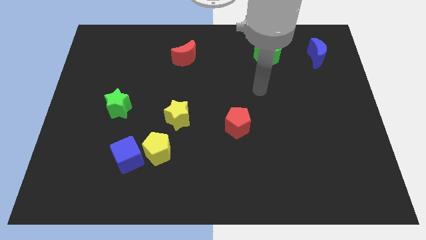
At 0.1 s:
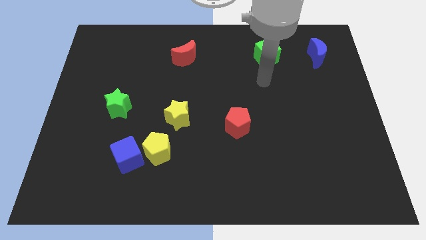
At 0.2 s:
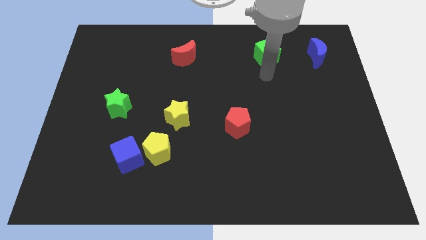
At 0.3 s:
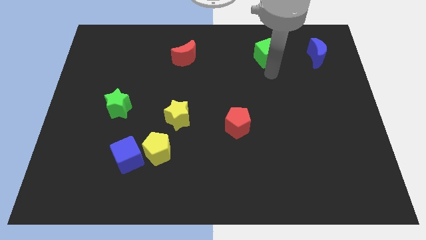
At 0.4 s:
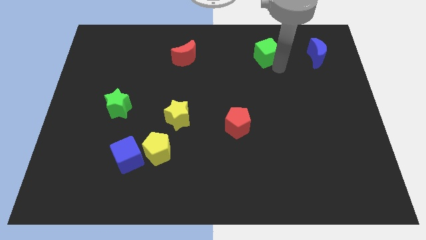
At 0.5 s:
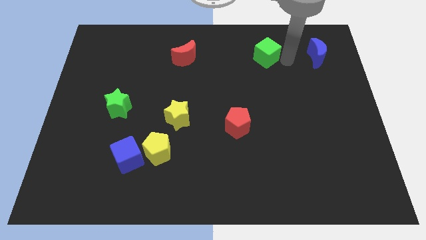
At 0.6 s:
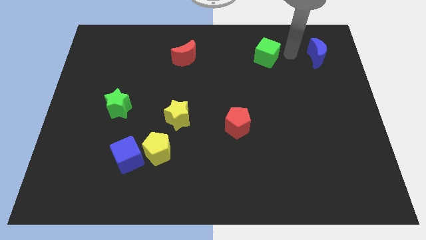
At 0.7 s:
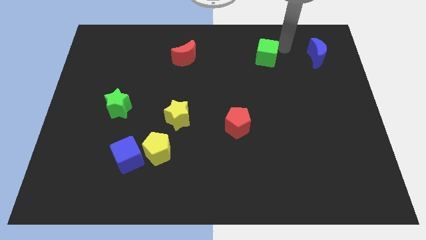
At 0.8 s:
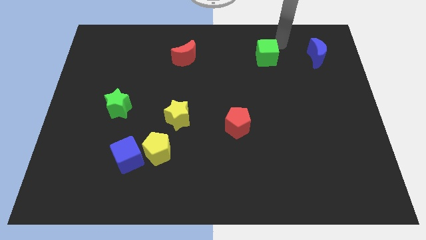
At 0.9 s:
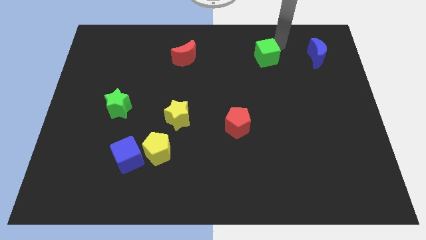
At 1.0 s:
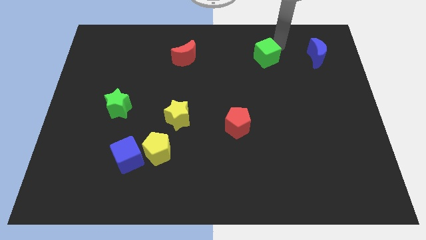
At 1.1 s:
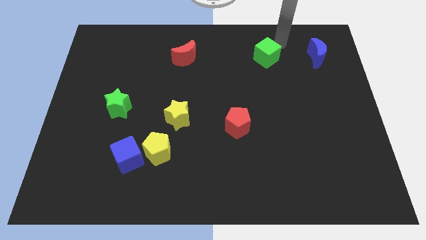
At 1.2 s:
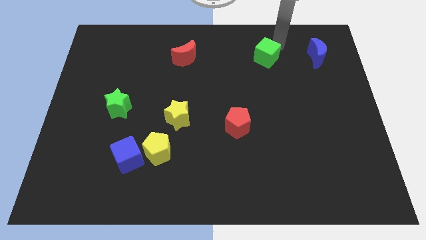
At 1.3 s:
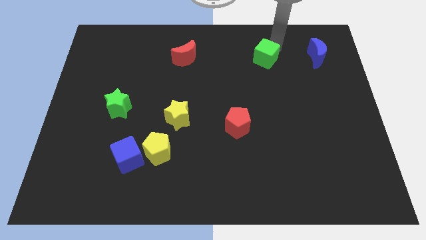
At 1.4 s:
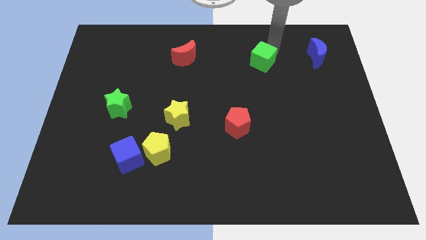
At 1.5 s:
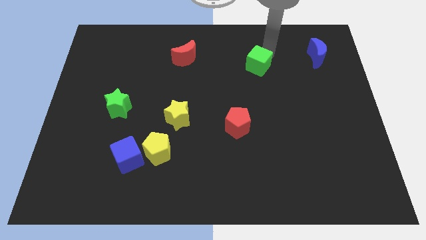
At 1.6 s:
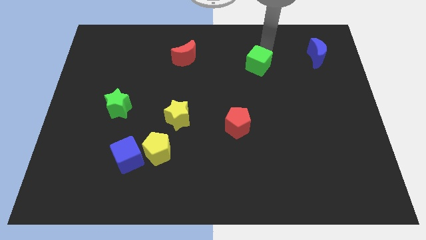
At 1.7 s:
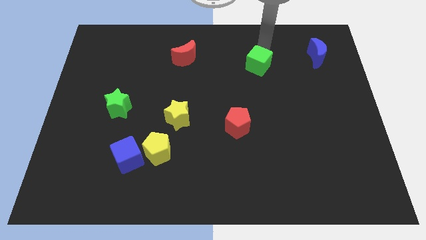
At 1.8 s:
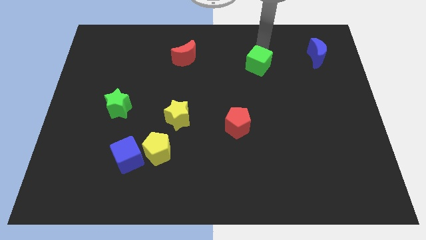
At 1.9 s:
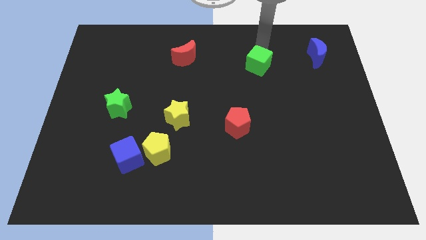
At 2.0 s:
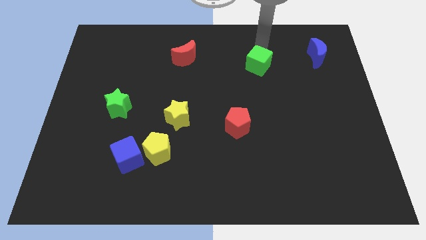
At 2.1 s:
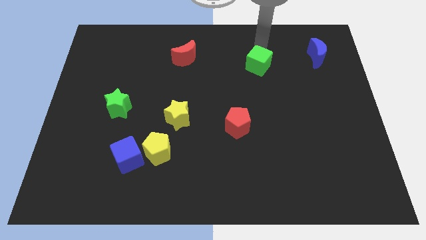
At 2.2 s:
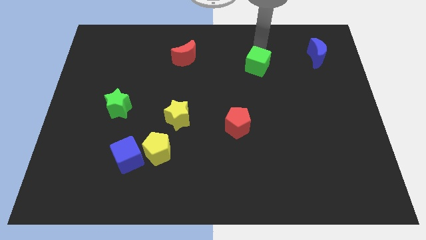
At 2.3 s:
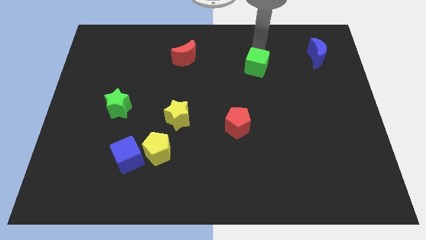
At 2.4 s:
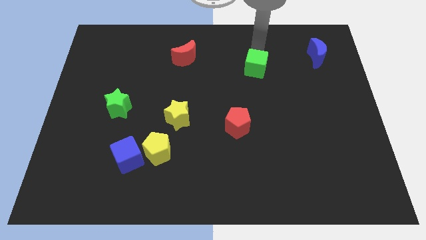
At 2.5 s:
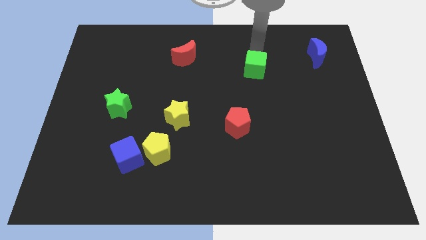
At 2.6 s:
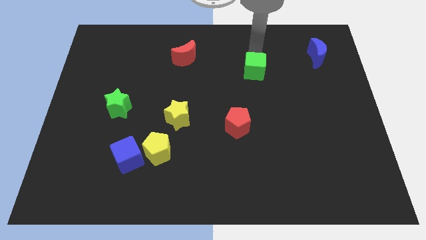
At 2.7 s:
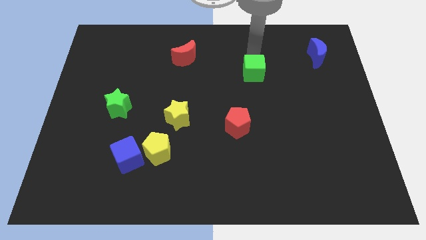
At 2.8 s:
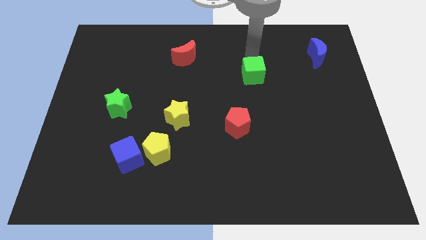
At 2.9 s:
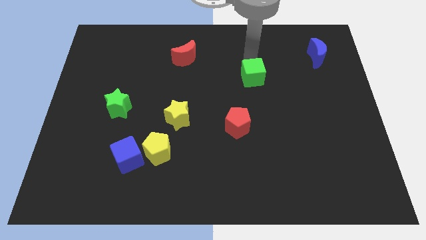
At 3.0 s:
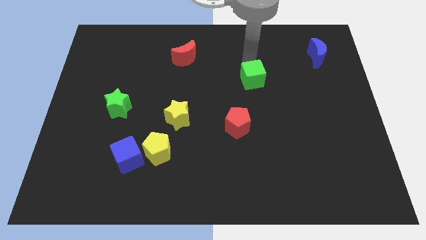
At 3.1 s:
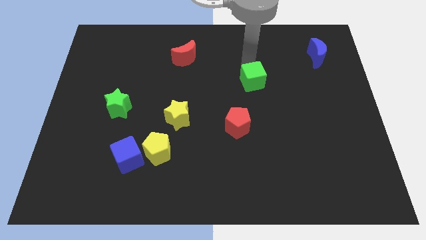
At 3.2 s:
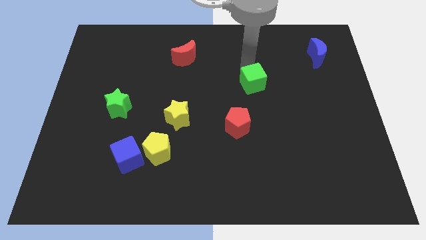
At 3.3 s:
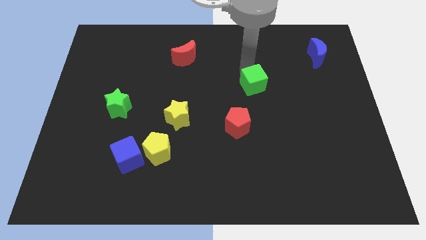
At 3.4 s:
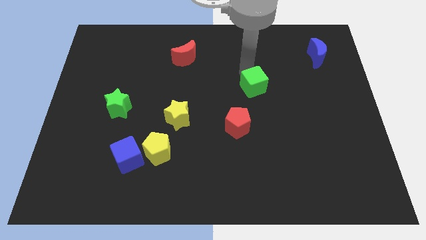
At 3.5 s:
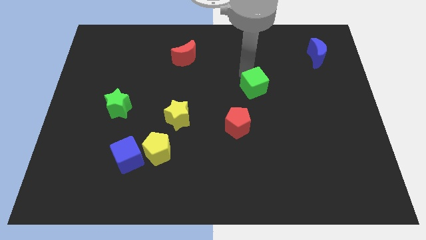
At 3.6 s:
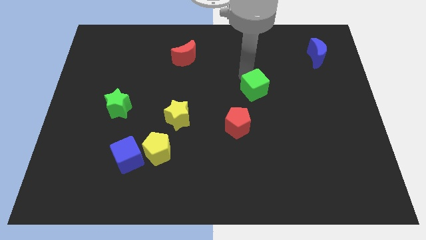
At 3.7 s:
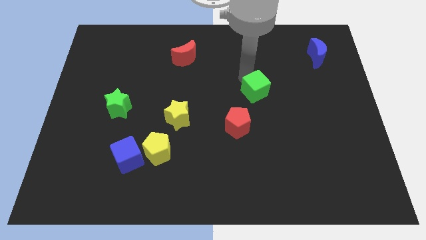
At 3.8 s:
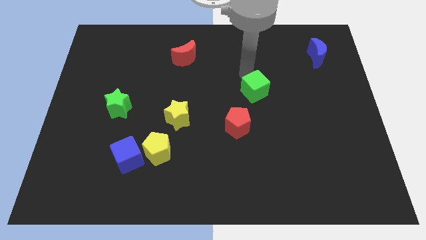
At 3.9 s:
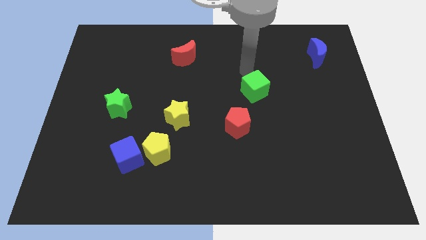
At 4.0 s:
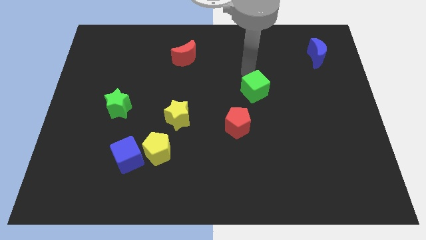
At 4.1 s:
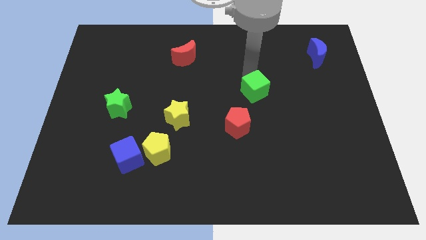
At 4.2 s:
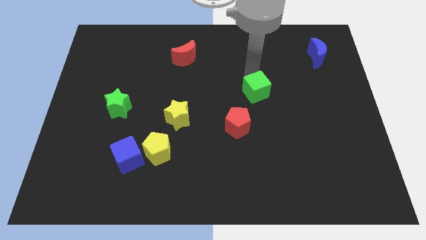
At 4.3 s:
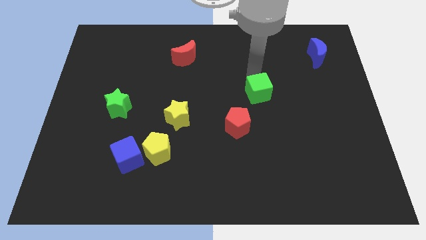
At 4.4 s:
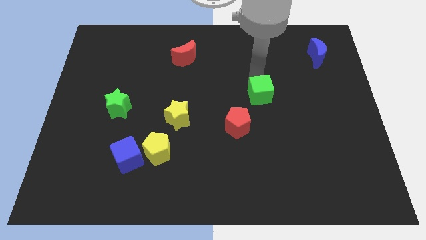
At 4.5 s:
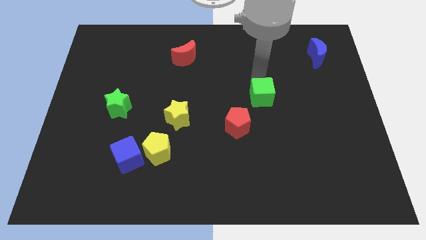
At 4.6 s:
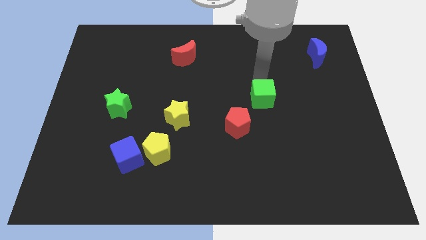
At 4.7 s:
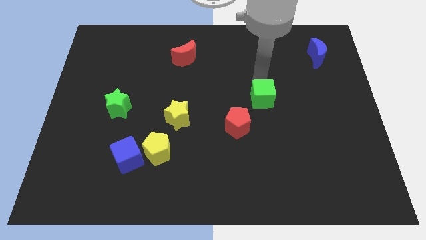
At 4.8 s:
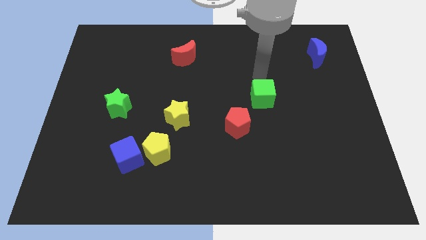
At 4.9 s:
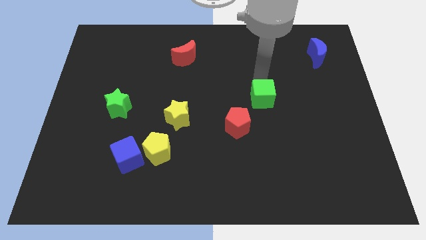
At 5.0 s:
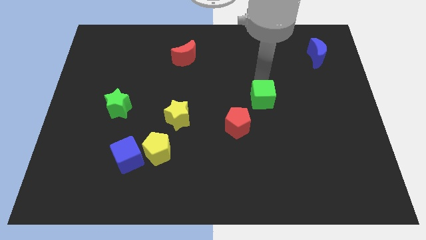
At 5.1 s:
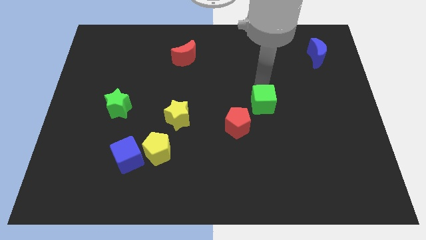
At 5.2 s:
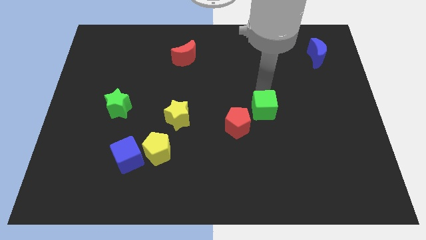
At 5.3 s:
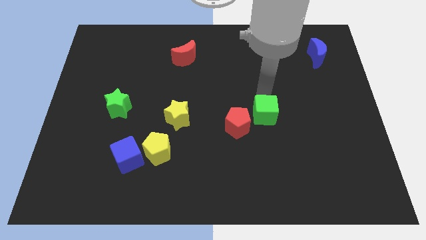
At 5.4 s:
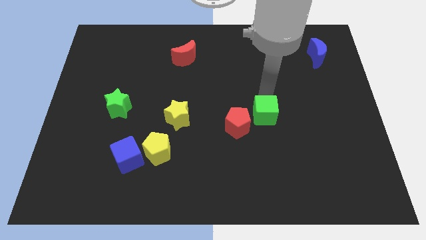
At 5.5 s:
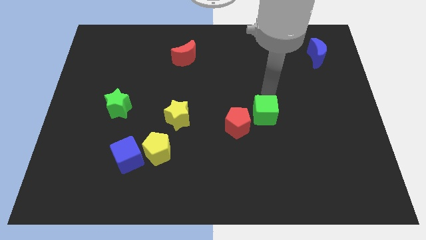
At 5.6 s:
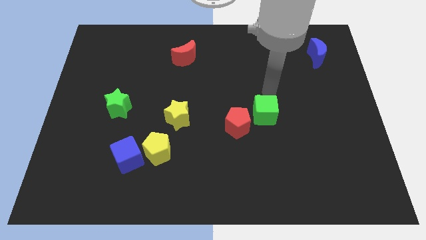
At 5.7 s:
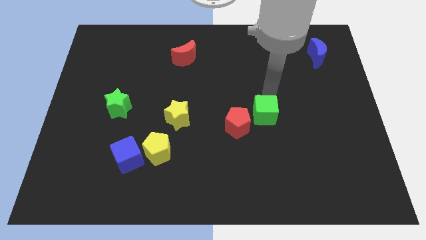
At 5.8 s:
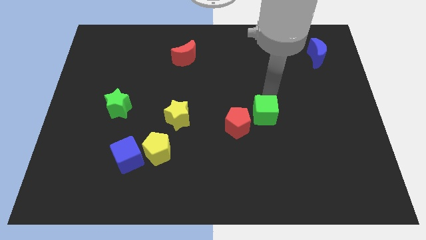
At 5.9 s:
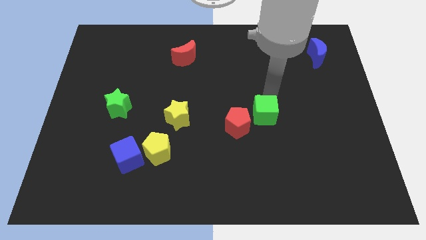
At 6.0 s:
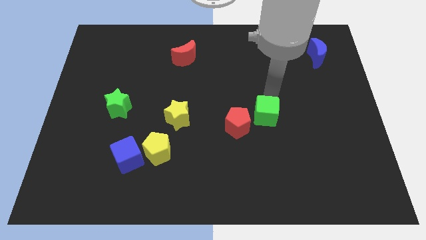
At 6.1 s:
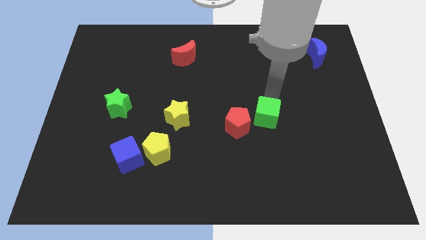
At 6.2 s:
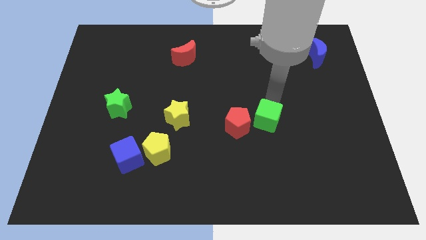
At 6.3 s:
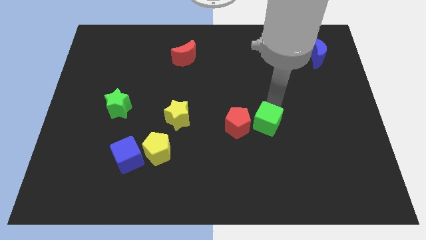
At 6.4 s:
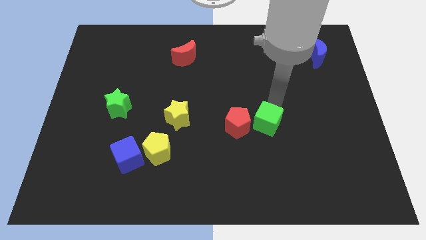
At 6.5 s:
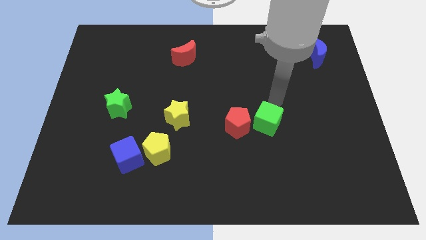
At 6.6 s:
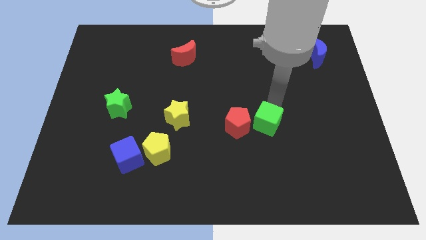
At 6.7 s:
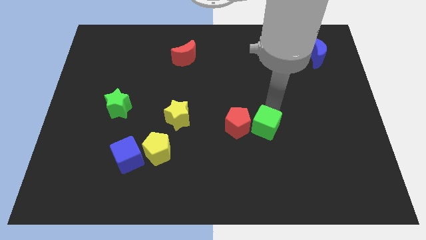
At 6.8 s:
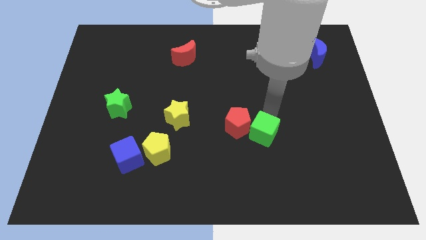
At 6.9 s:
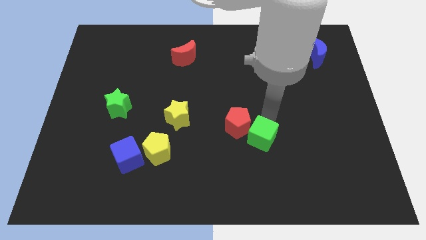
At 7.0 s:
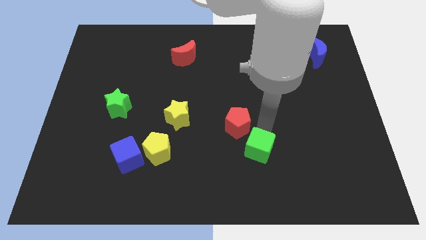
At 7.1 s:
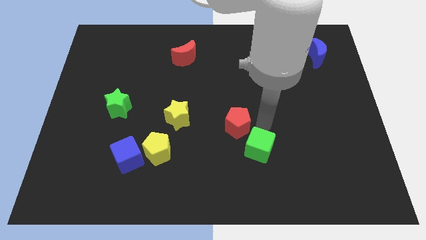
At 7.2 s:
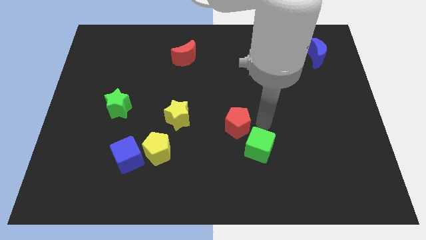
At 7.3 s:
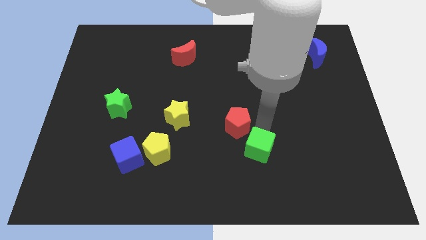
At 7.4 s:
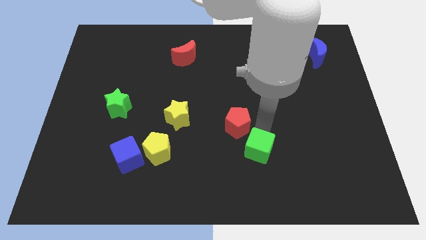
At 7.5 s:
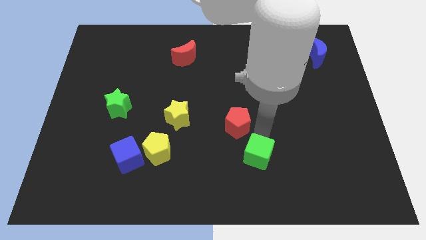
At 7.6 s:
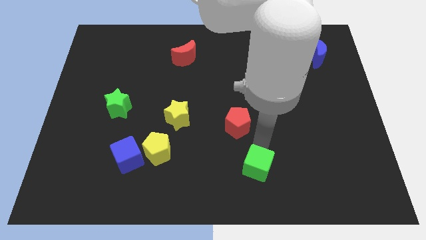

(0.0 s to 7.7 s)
put the green cube to the bottom side
